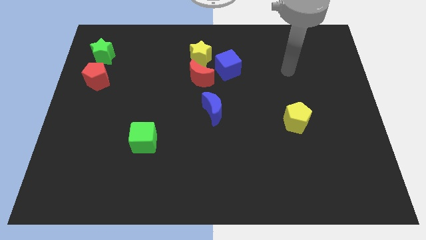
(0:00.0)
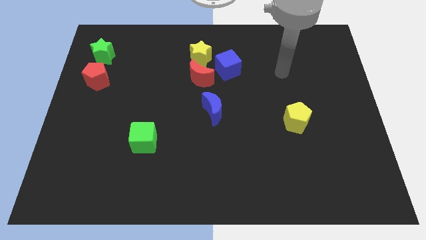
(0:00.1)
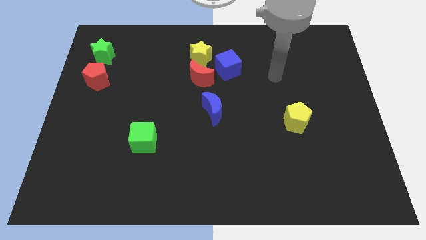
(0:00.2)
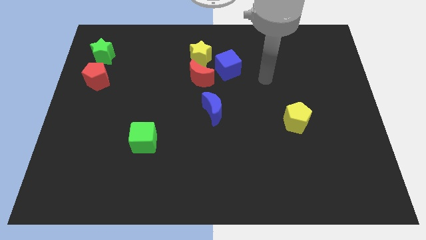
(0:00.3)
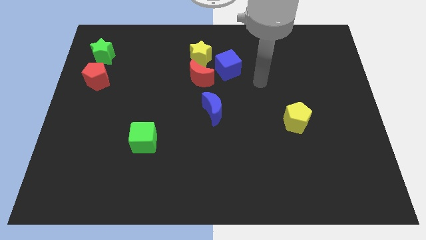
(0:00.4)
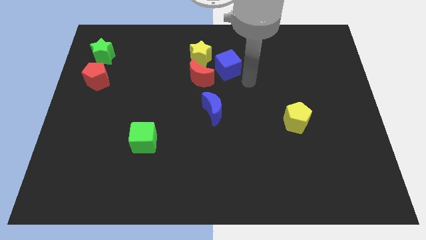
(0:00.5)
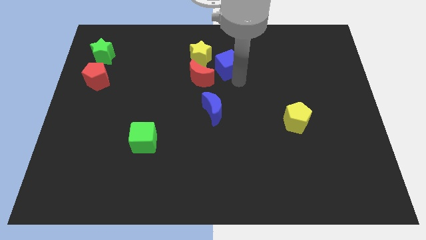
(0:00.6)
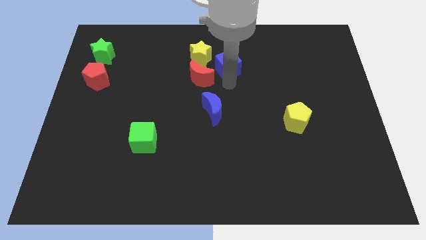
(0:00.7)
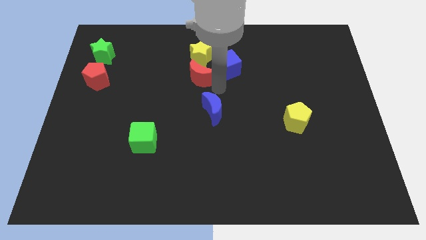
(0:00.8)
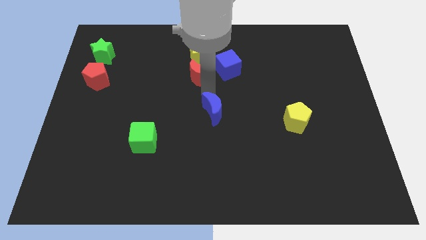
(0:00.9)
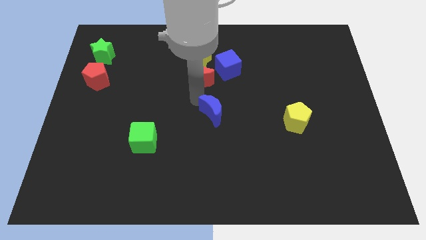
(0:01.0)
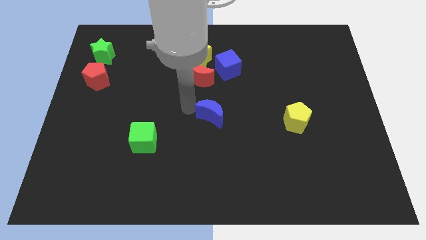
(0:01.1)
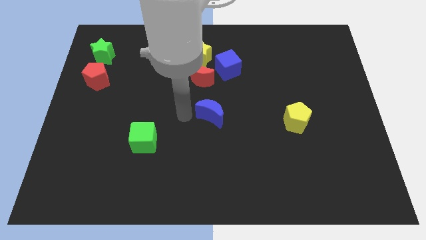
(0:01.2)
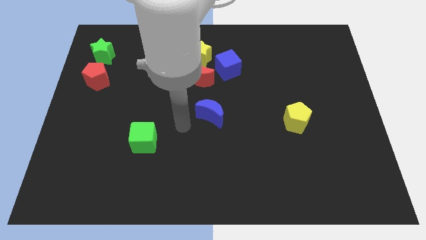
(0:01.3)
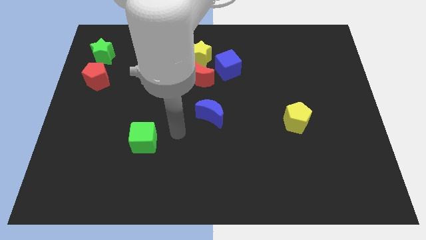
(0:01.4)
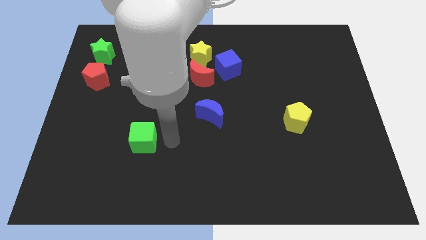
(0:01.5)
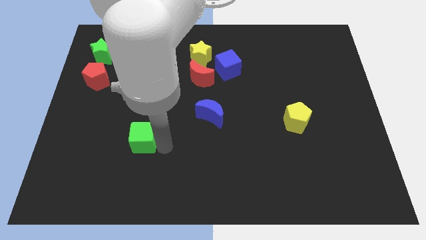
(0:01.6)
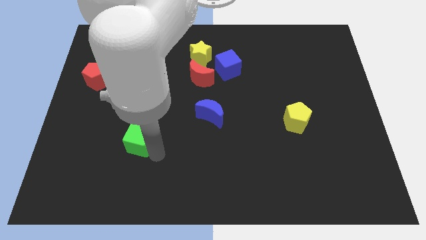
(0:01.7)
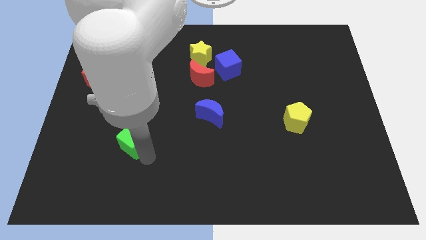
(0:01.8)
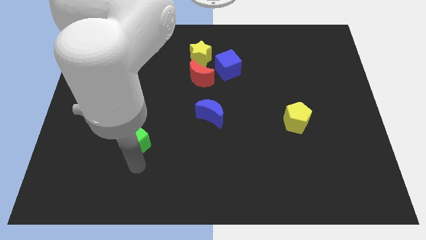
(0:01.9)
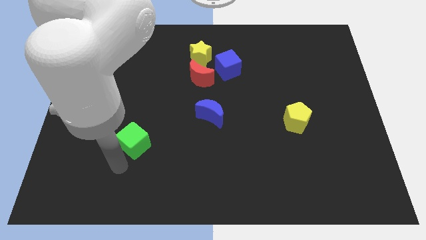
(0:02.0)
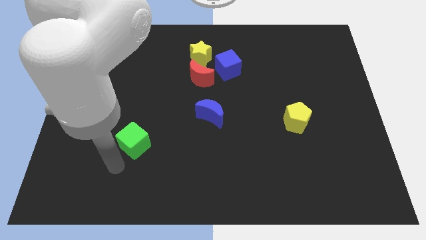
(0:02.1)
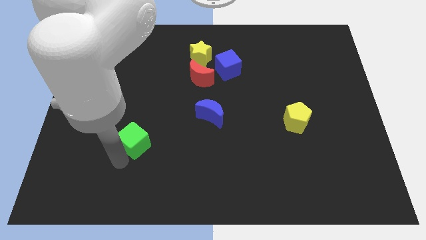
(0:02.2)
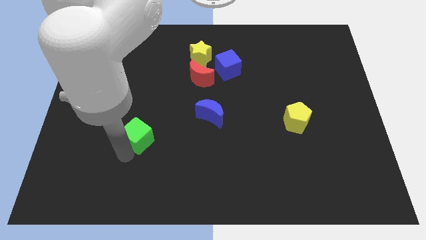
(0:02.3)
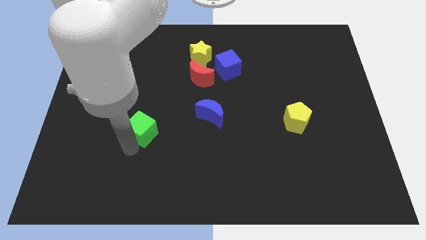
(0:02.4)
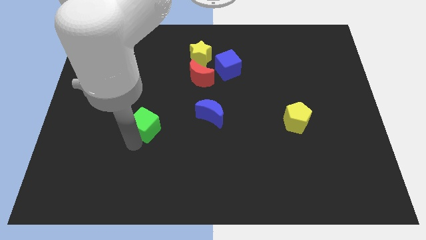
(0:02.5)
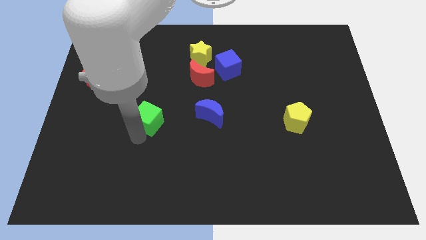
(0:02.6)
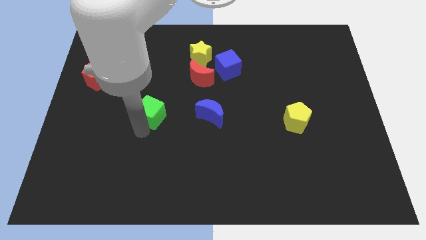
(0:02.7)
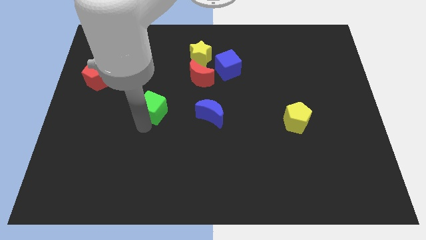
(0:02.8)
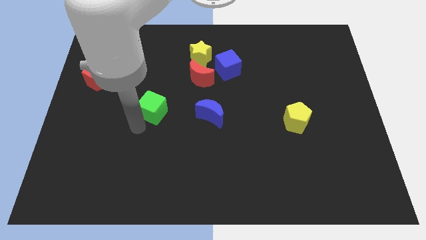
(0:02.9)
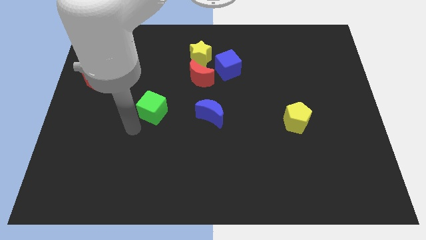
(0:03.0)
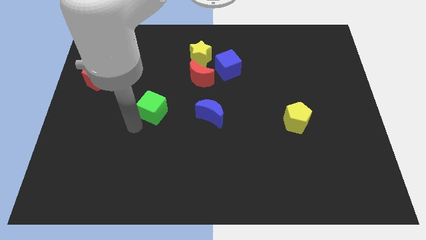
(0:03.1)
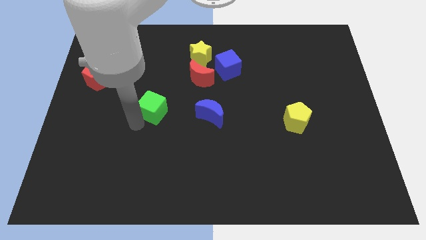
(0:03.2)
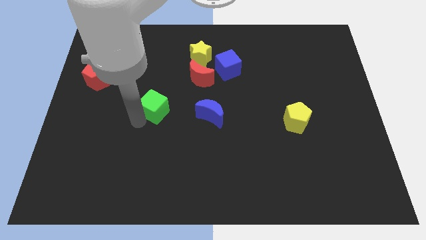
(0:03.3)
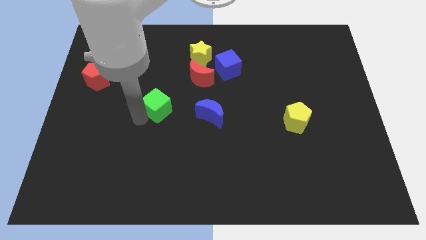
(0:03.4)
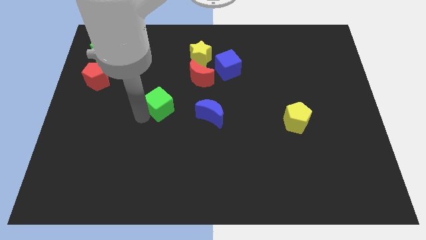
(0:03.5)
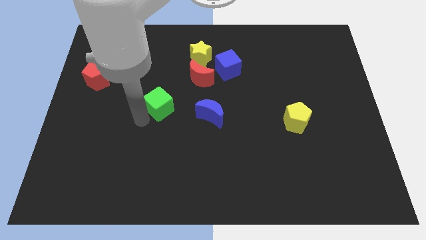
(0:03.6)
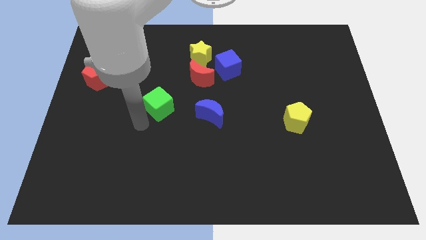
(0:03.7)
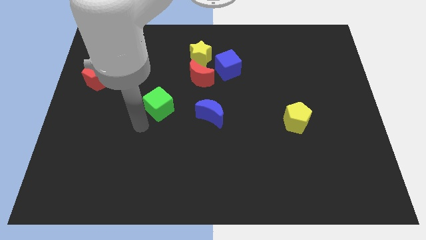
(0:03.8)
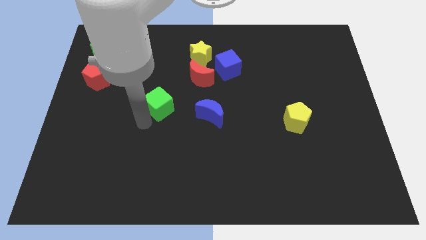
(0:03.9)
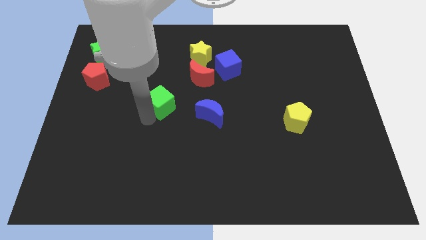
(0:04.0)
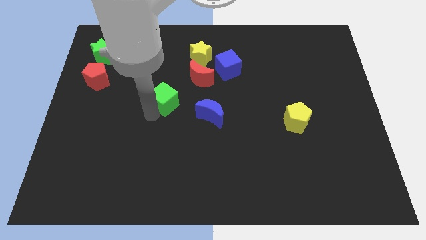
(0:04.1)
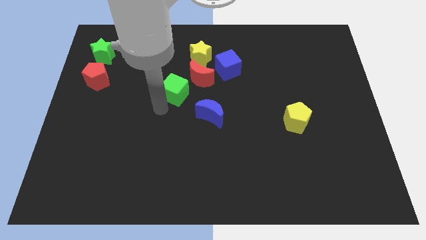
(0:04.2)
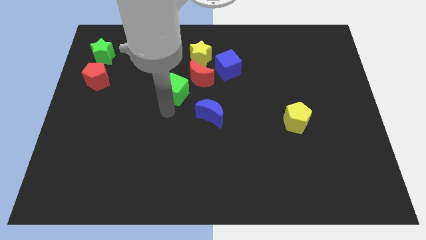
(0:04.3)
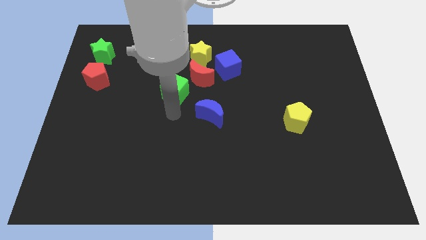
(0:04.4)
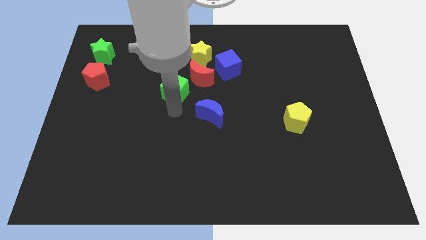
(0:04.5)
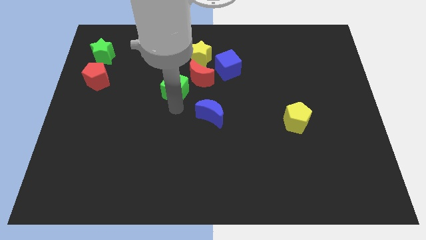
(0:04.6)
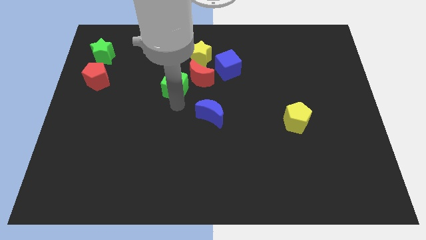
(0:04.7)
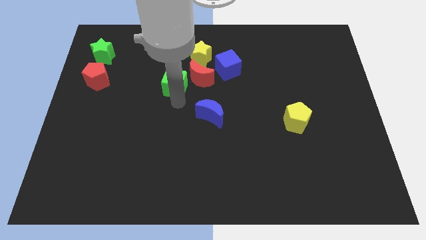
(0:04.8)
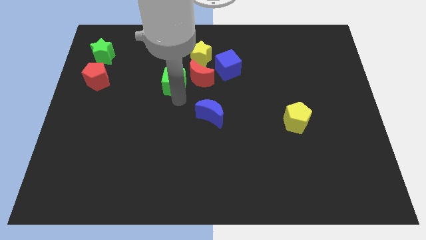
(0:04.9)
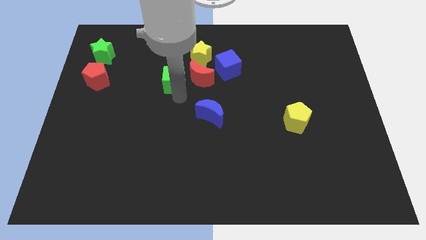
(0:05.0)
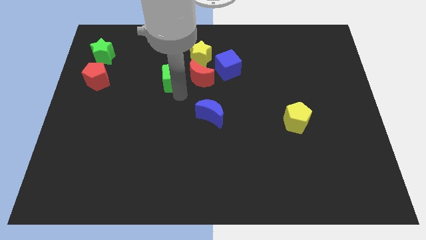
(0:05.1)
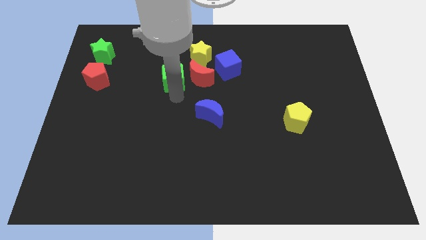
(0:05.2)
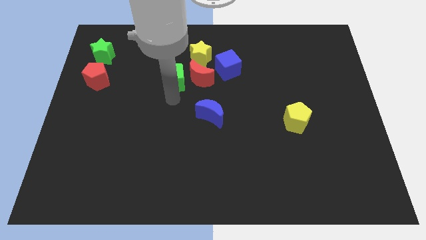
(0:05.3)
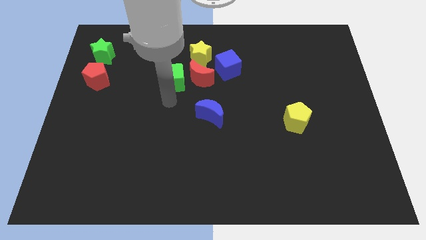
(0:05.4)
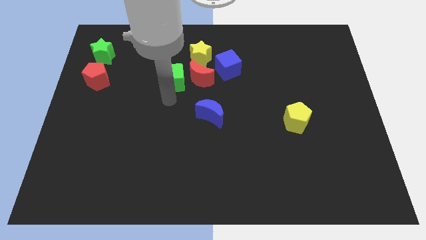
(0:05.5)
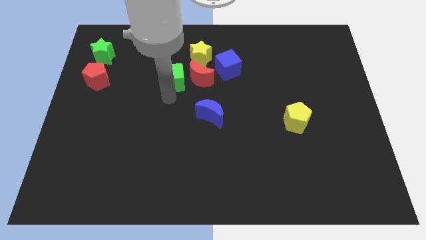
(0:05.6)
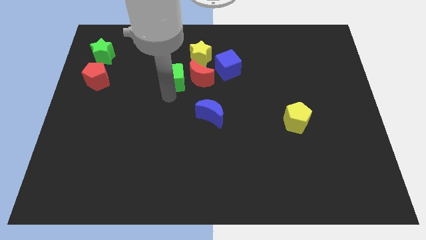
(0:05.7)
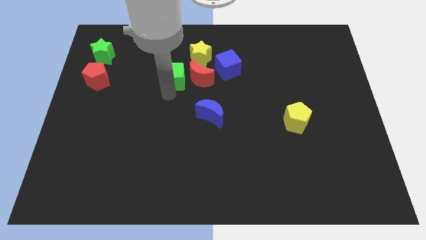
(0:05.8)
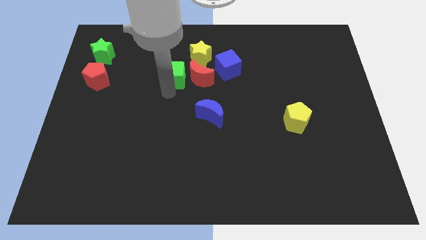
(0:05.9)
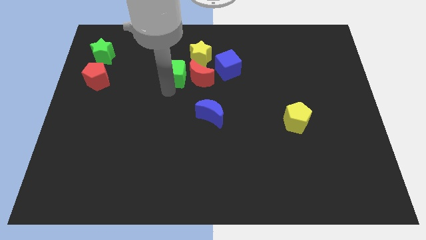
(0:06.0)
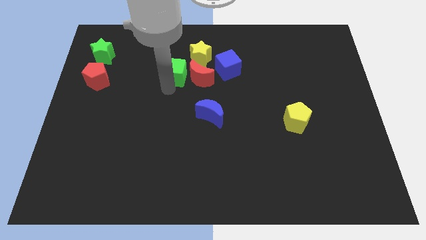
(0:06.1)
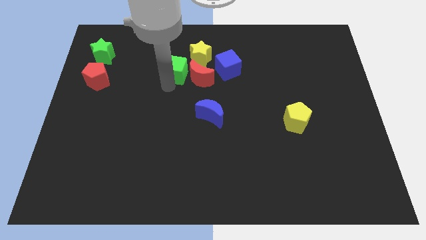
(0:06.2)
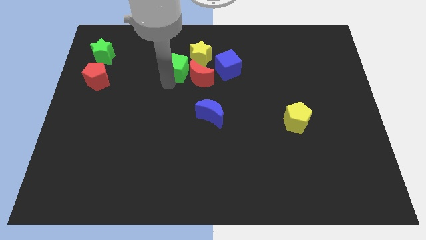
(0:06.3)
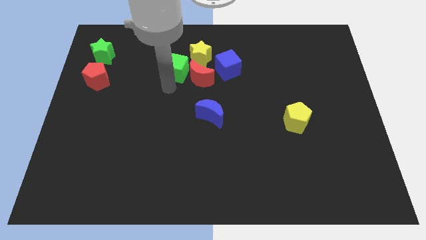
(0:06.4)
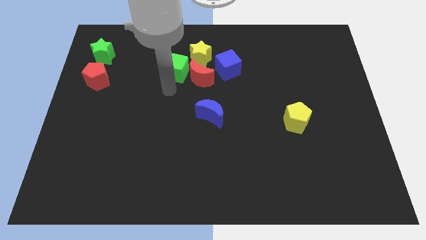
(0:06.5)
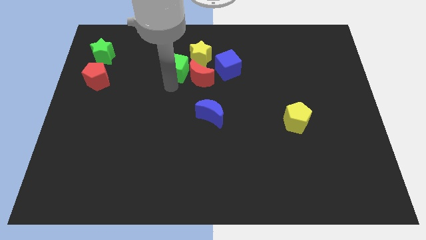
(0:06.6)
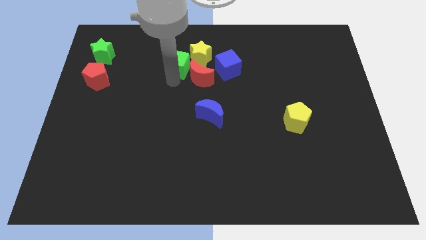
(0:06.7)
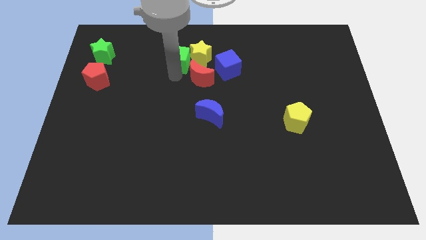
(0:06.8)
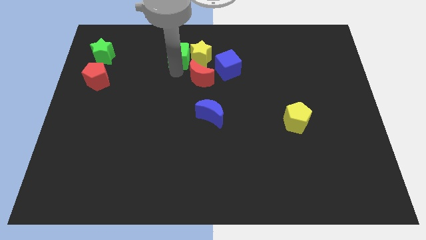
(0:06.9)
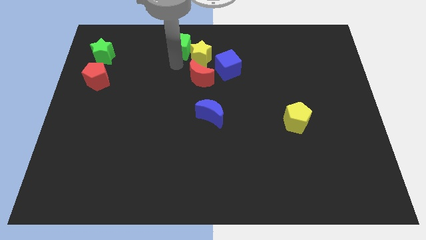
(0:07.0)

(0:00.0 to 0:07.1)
slide the green cube to the top side
